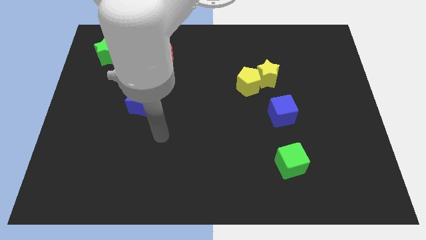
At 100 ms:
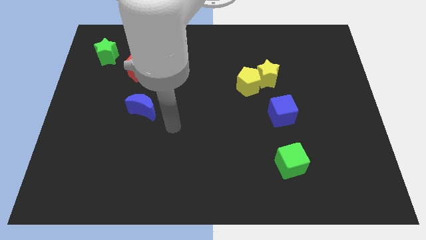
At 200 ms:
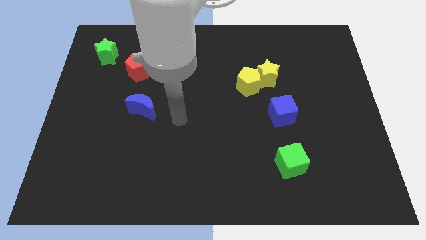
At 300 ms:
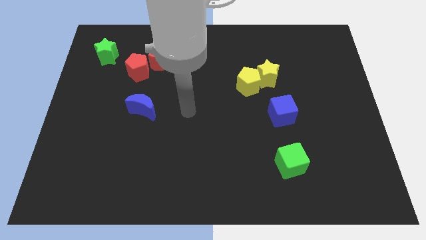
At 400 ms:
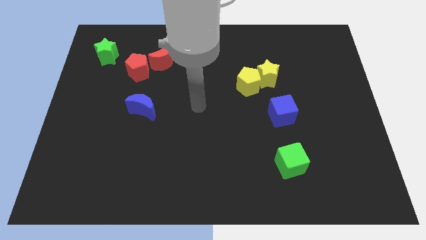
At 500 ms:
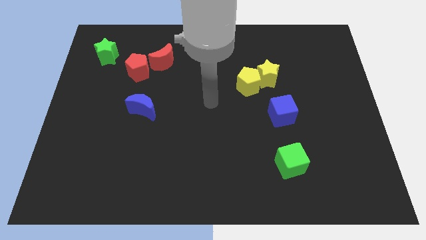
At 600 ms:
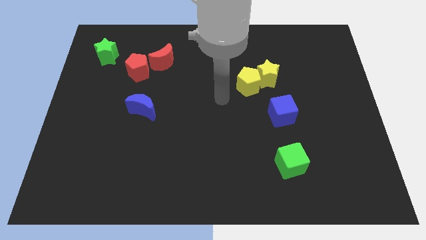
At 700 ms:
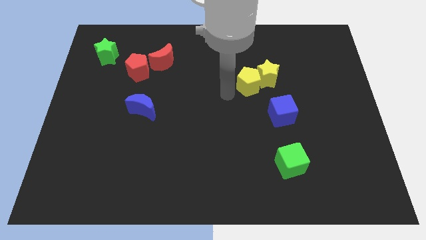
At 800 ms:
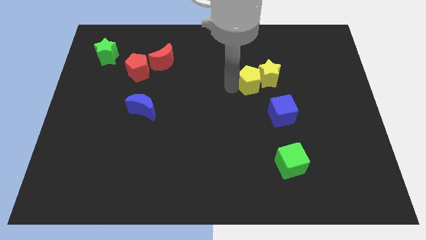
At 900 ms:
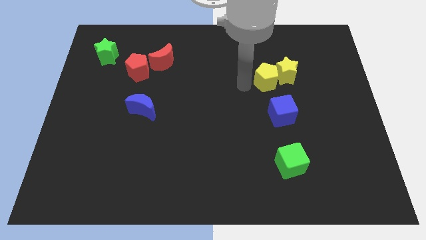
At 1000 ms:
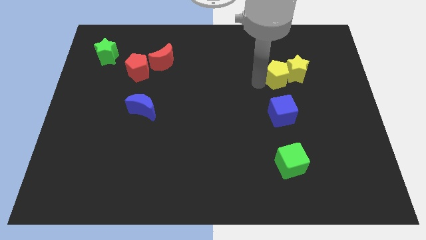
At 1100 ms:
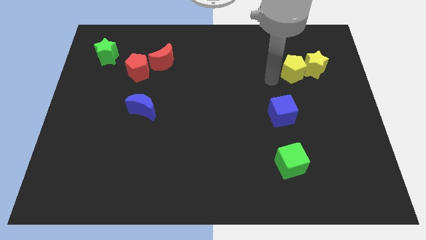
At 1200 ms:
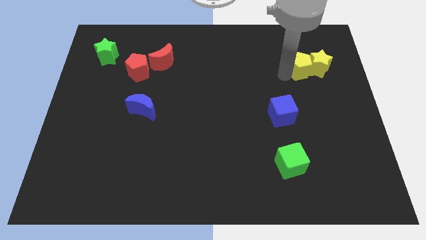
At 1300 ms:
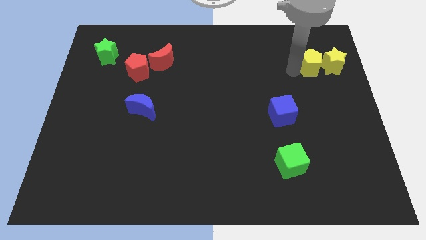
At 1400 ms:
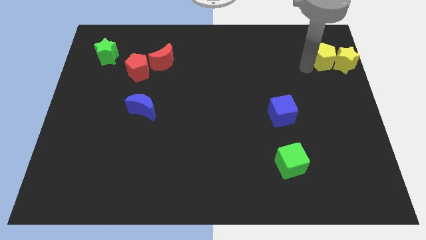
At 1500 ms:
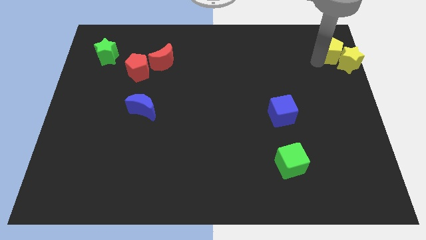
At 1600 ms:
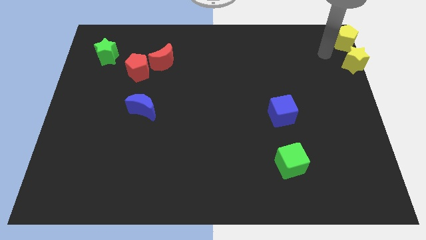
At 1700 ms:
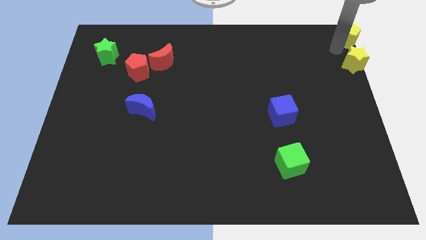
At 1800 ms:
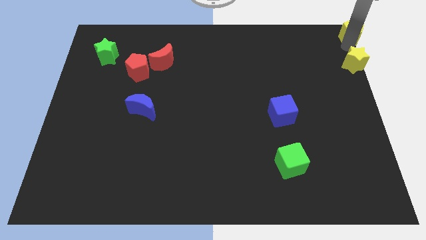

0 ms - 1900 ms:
separate the yellow star from the yellow pentagon

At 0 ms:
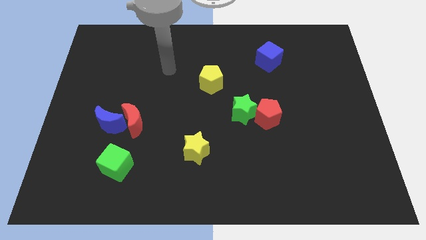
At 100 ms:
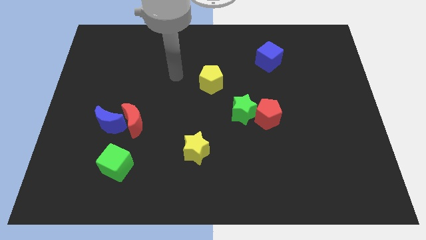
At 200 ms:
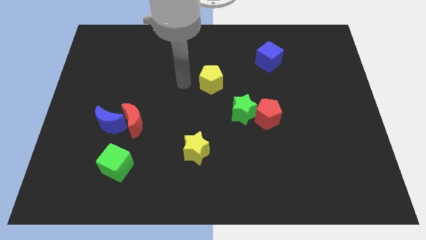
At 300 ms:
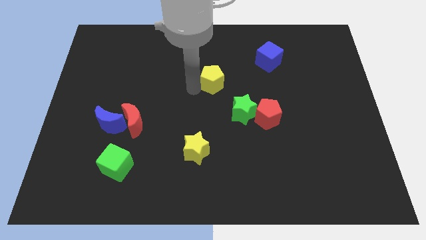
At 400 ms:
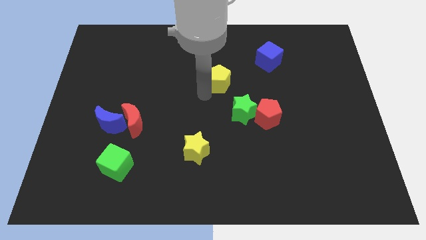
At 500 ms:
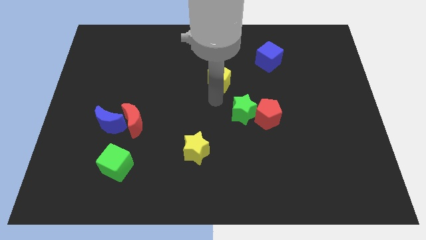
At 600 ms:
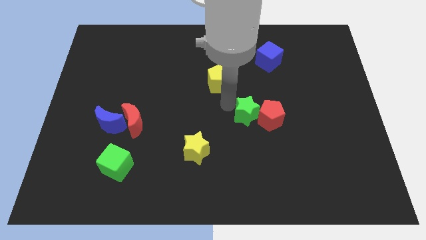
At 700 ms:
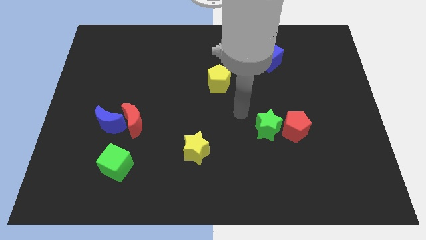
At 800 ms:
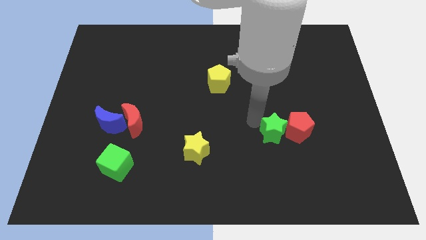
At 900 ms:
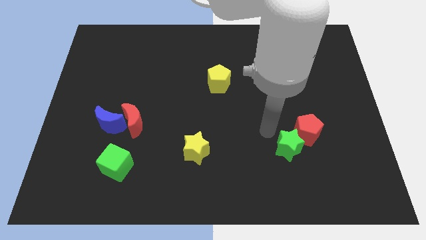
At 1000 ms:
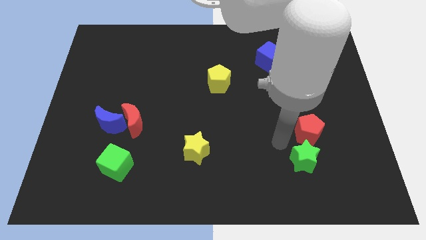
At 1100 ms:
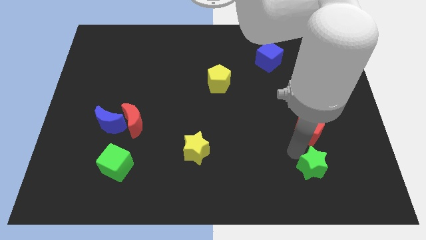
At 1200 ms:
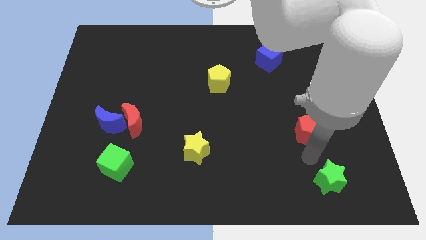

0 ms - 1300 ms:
pull the red pentagon apart from the green star

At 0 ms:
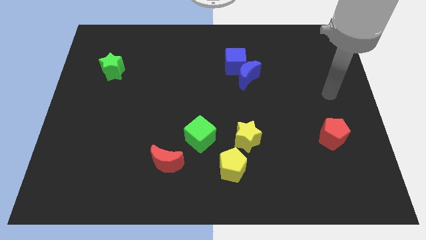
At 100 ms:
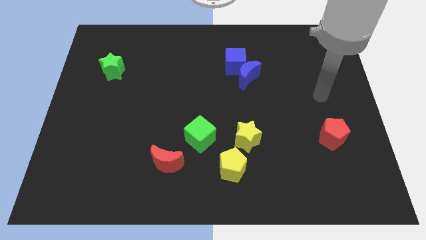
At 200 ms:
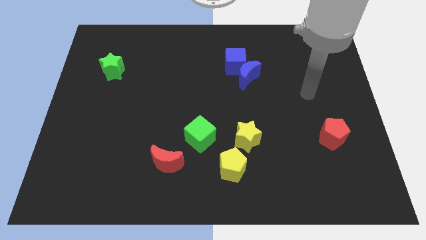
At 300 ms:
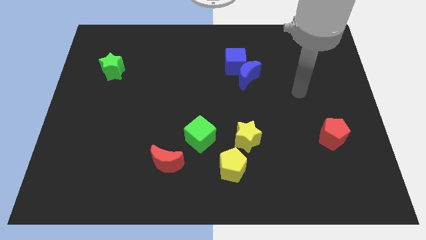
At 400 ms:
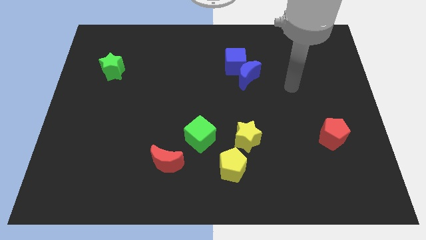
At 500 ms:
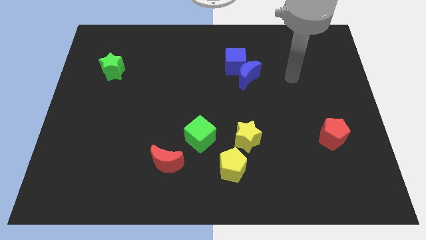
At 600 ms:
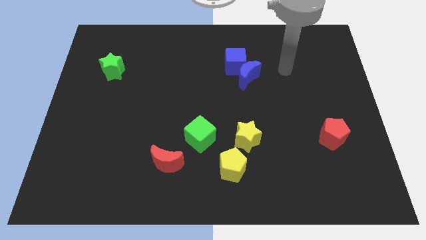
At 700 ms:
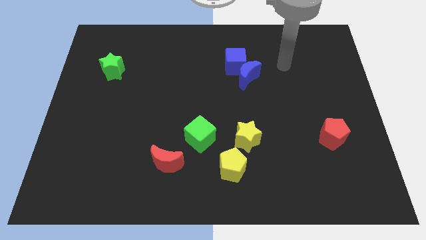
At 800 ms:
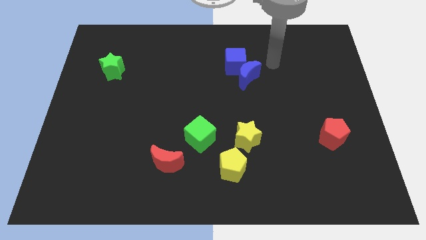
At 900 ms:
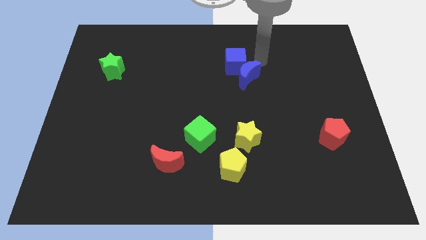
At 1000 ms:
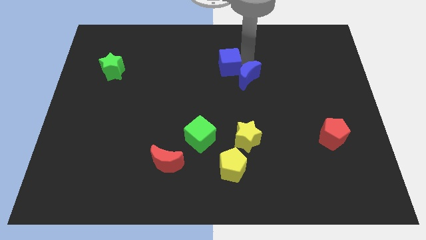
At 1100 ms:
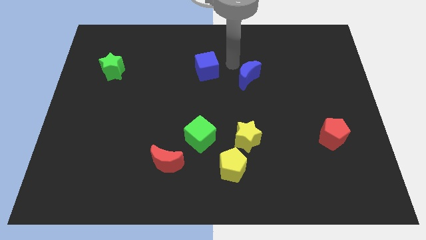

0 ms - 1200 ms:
separate the blue moon from the blue cube

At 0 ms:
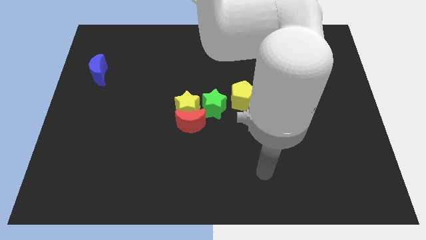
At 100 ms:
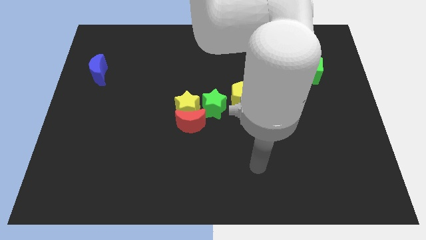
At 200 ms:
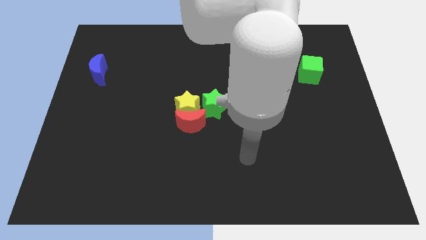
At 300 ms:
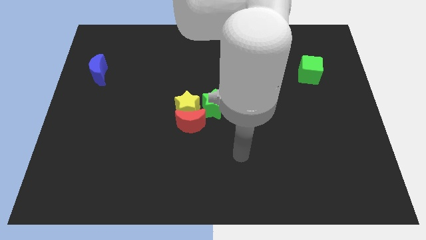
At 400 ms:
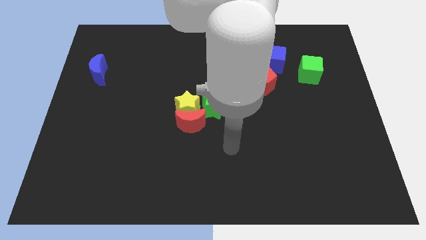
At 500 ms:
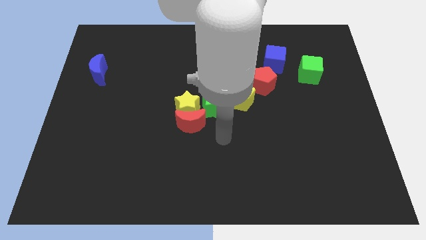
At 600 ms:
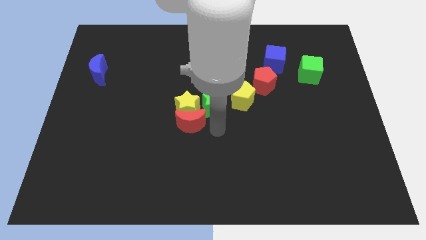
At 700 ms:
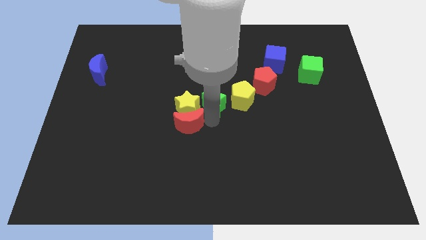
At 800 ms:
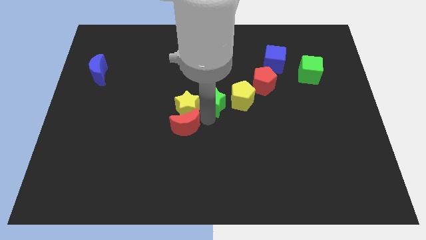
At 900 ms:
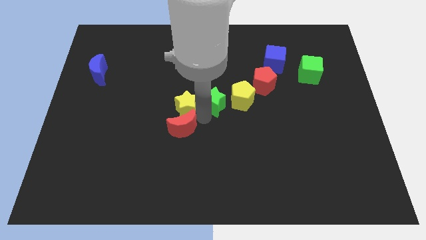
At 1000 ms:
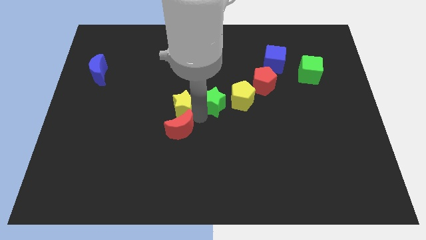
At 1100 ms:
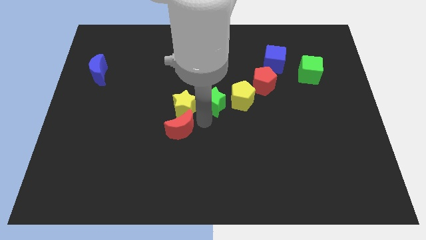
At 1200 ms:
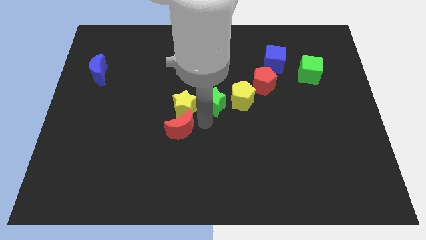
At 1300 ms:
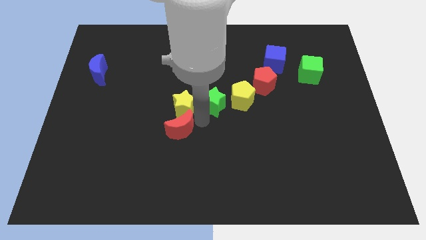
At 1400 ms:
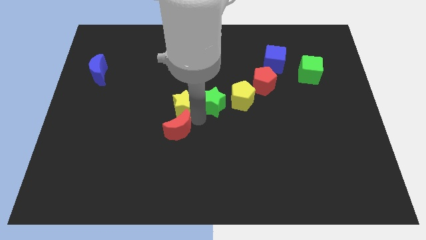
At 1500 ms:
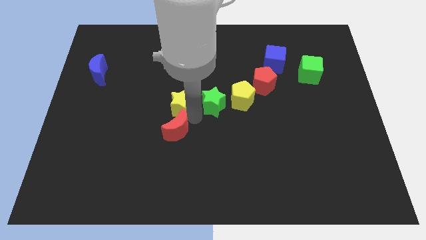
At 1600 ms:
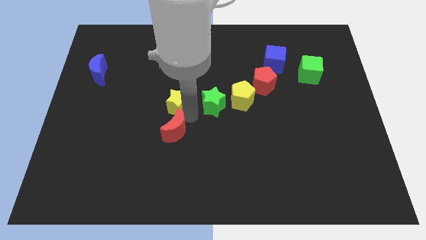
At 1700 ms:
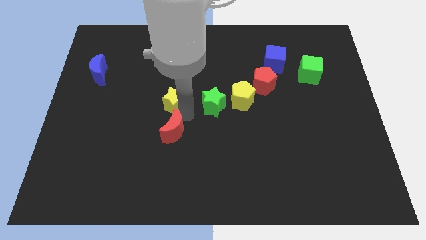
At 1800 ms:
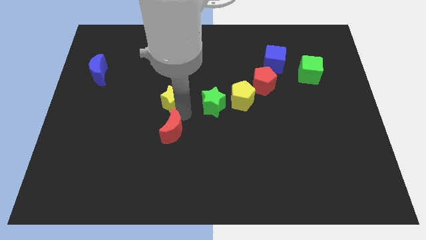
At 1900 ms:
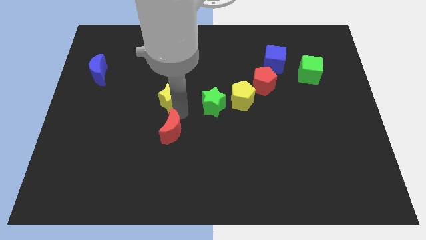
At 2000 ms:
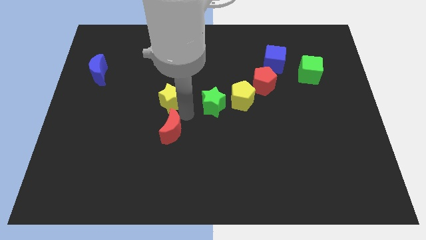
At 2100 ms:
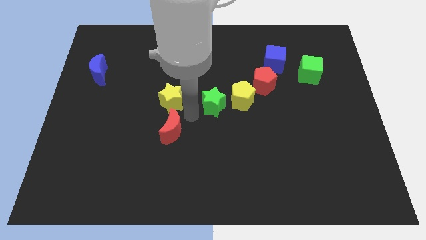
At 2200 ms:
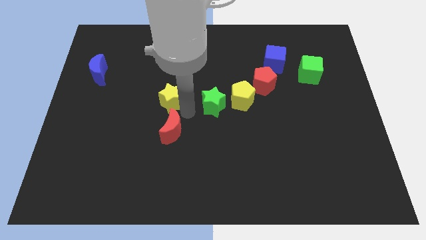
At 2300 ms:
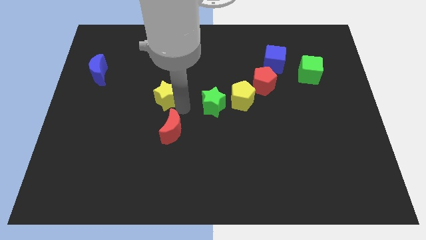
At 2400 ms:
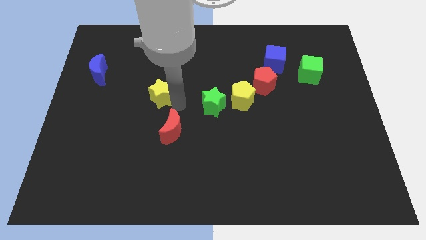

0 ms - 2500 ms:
separate the yellow star from the red moon and green star

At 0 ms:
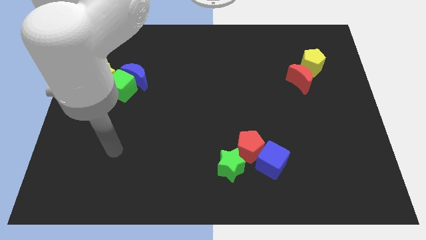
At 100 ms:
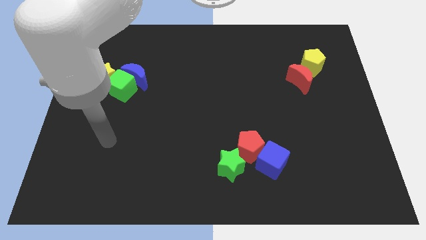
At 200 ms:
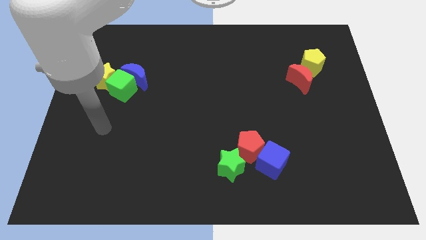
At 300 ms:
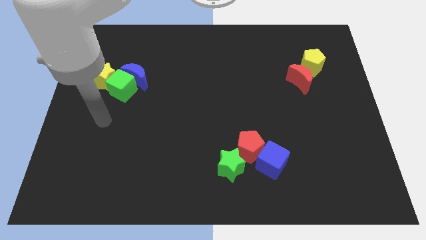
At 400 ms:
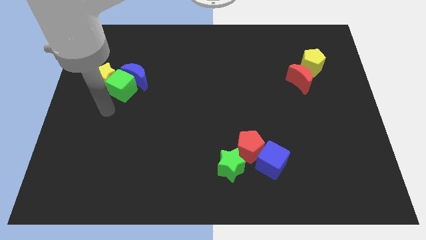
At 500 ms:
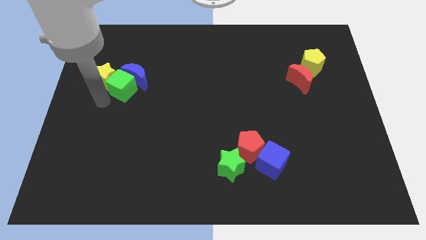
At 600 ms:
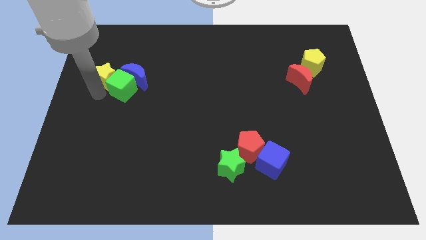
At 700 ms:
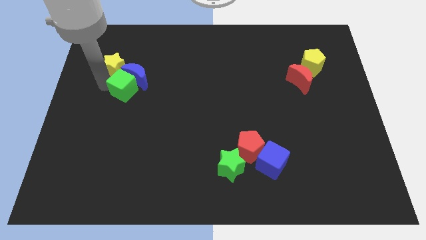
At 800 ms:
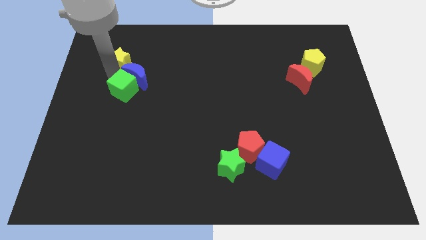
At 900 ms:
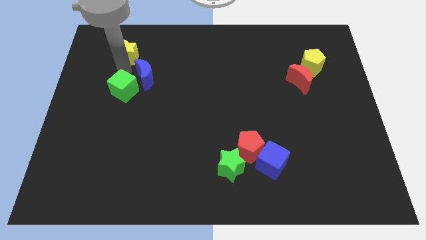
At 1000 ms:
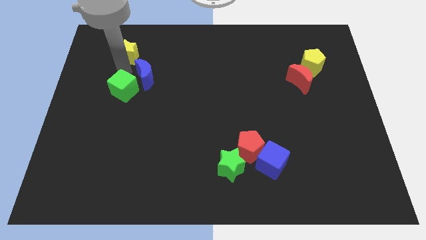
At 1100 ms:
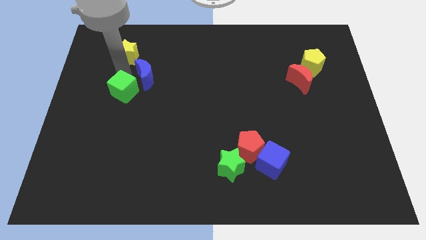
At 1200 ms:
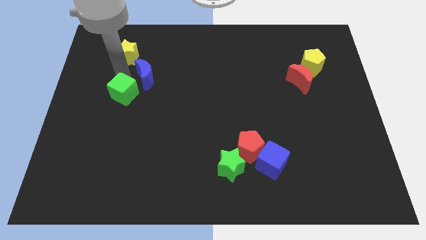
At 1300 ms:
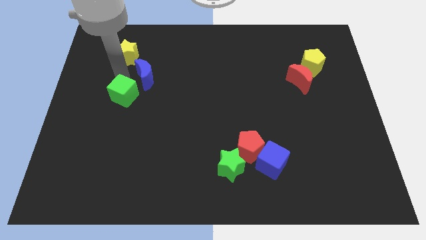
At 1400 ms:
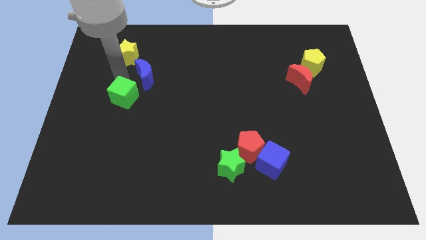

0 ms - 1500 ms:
separate the green cube from the blue moon and yellow star

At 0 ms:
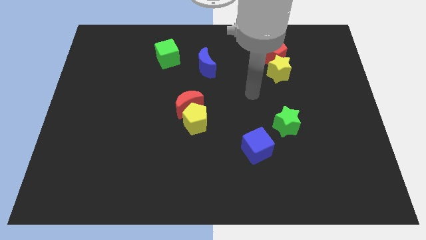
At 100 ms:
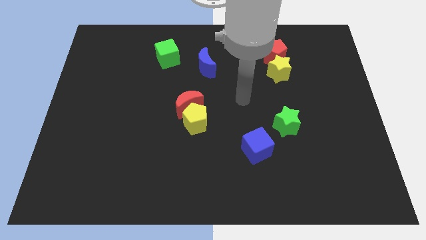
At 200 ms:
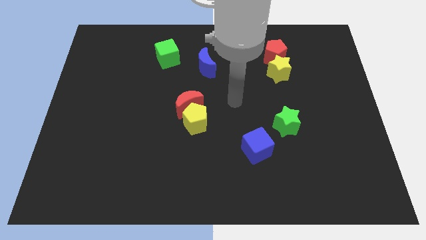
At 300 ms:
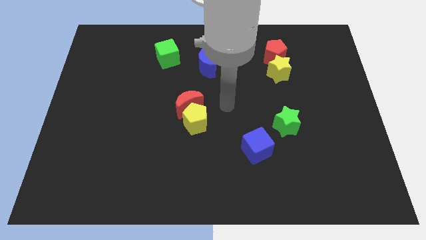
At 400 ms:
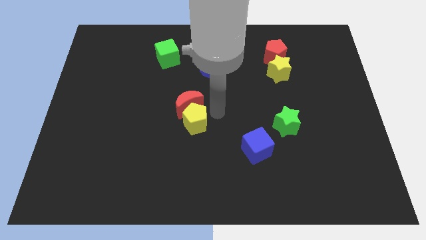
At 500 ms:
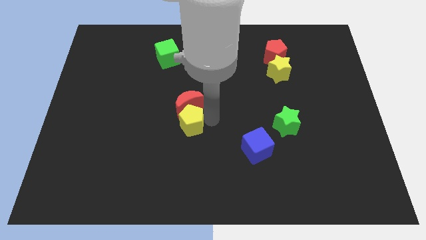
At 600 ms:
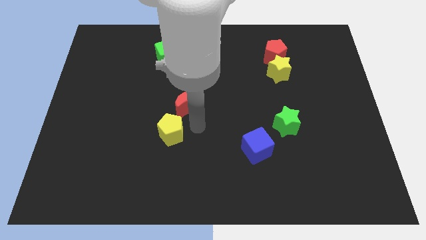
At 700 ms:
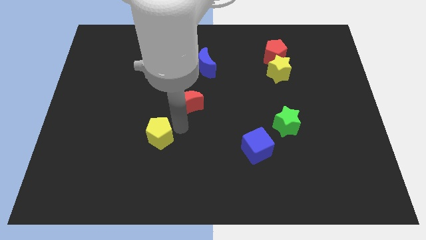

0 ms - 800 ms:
separate the red moon from the yellow pentagon
